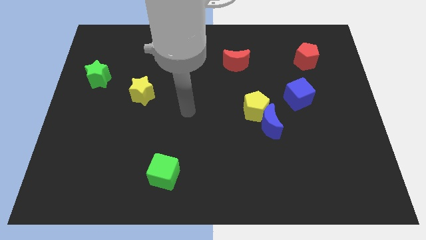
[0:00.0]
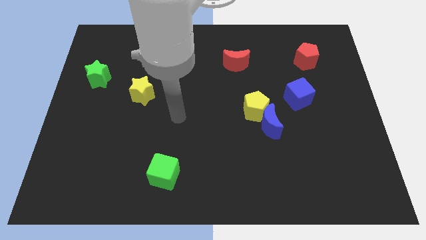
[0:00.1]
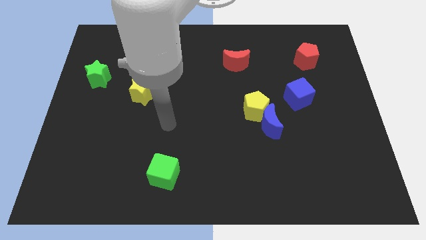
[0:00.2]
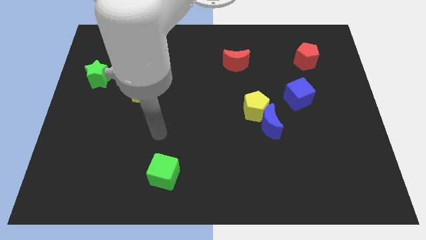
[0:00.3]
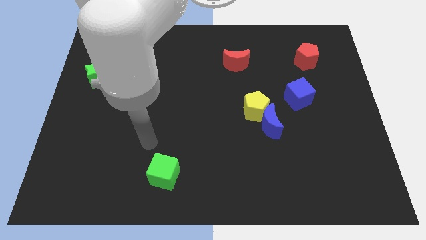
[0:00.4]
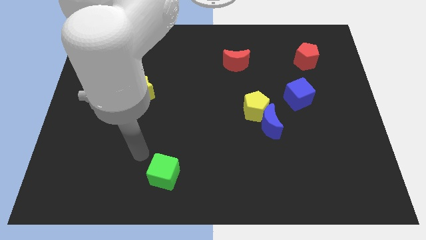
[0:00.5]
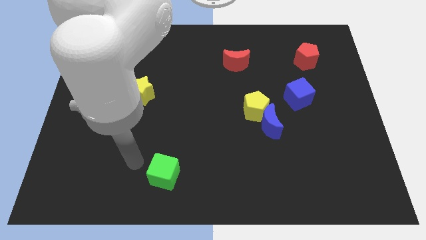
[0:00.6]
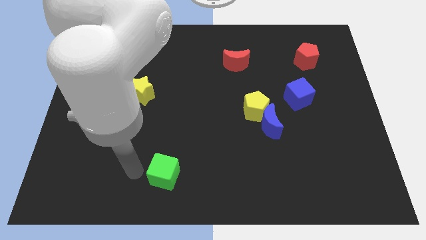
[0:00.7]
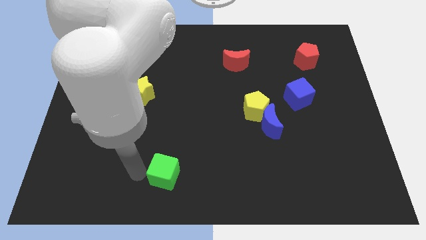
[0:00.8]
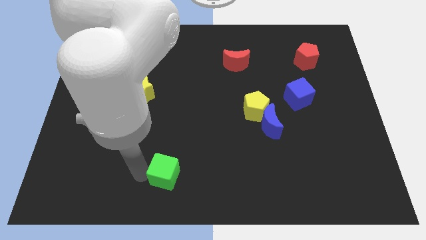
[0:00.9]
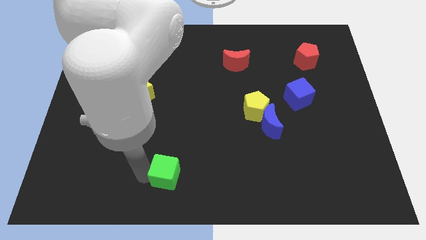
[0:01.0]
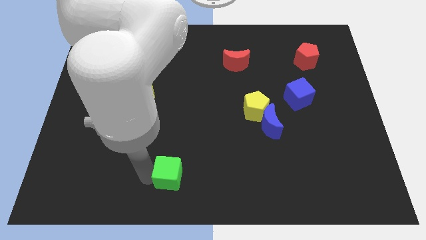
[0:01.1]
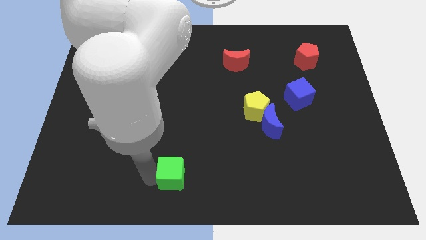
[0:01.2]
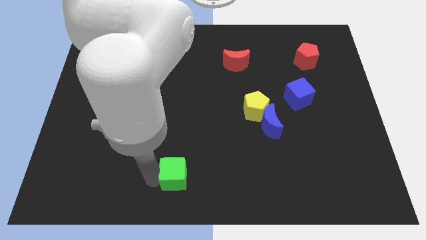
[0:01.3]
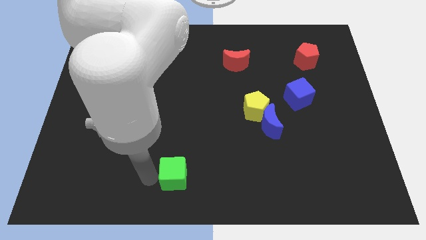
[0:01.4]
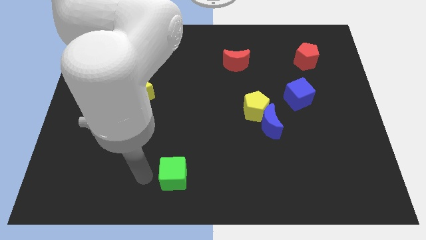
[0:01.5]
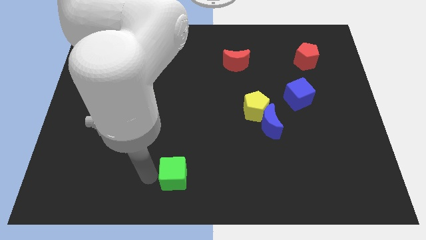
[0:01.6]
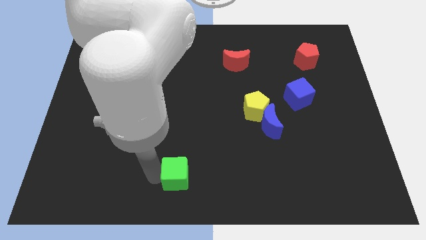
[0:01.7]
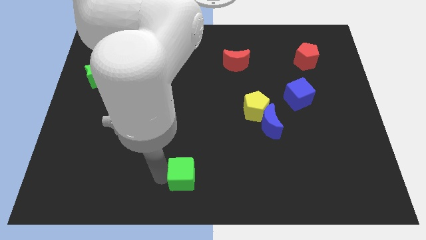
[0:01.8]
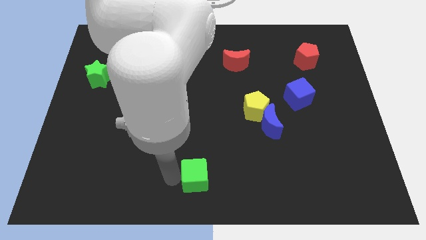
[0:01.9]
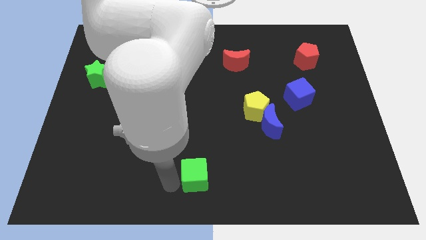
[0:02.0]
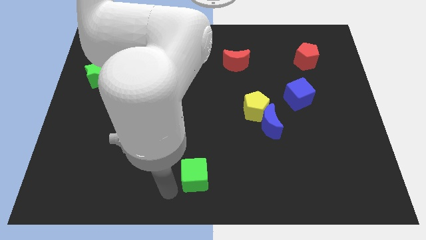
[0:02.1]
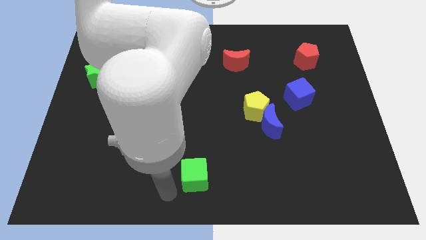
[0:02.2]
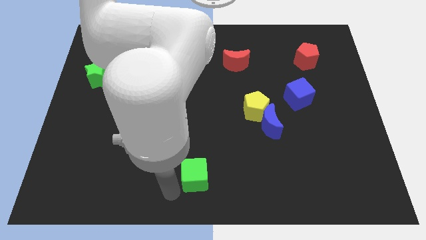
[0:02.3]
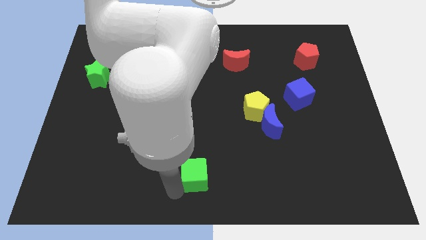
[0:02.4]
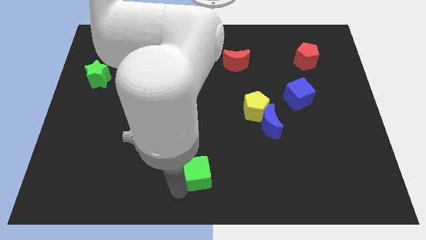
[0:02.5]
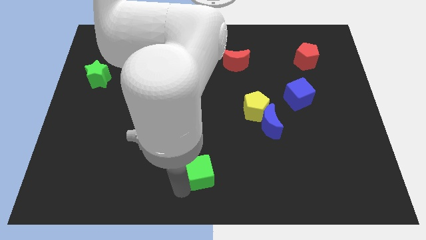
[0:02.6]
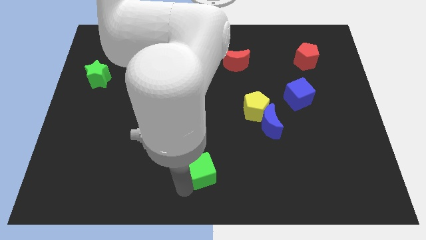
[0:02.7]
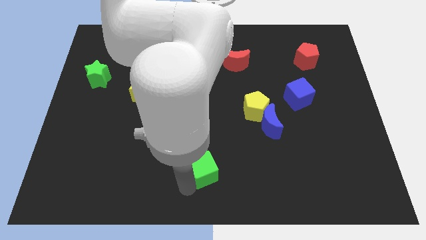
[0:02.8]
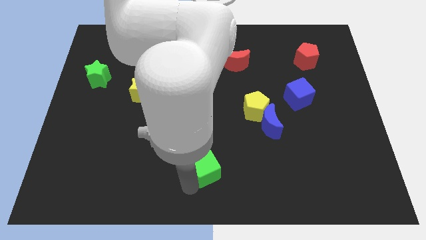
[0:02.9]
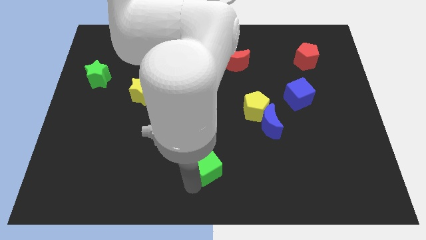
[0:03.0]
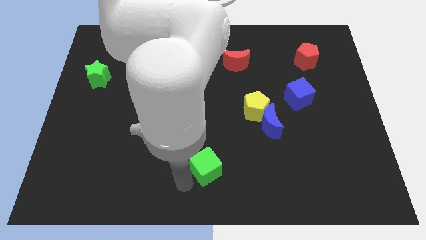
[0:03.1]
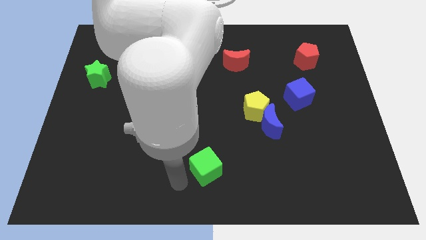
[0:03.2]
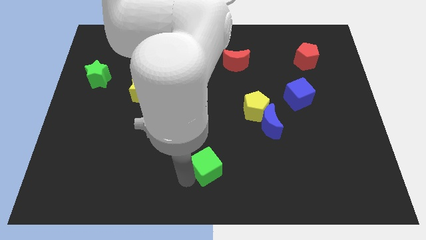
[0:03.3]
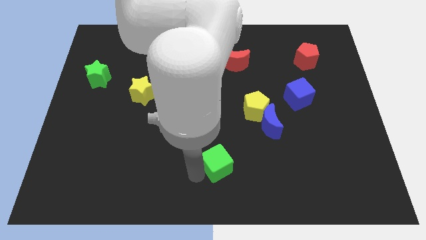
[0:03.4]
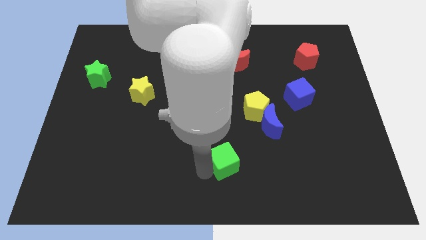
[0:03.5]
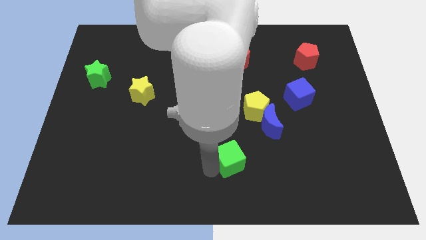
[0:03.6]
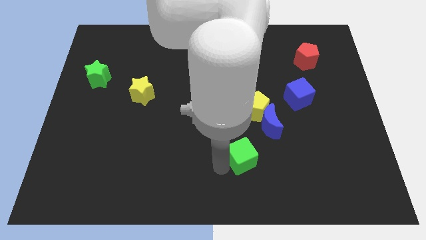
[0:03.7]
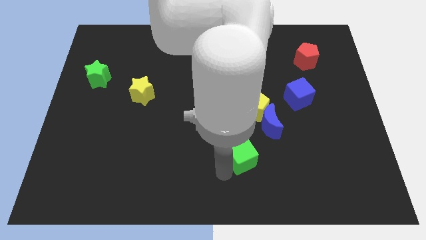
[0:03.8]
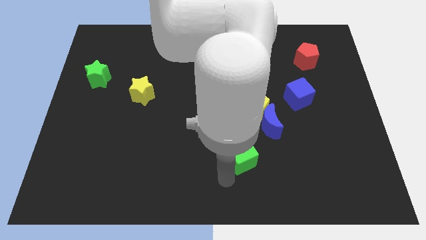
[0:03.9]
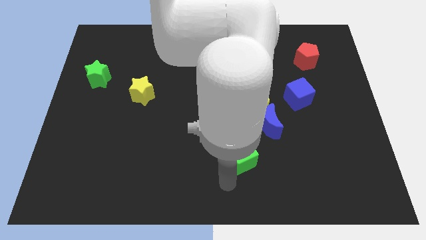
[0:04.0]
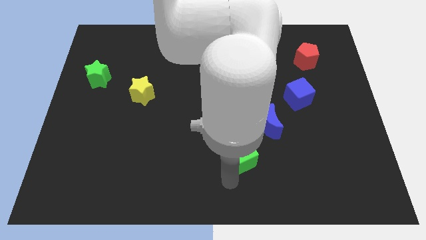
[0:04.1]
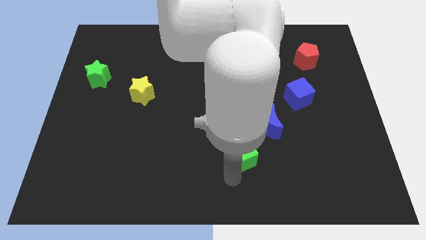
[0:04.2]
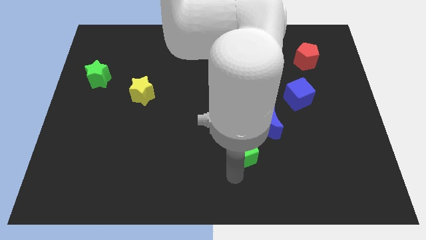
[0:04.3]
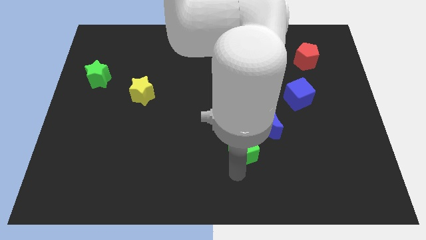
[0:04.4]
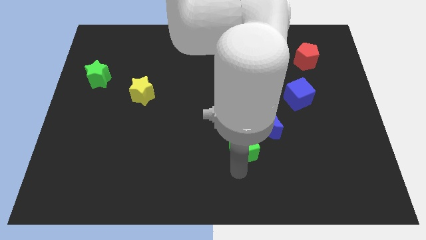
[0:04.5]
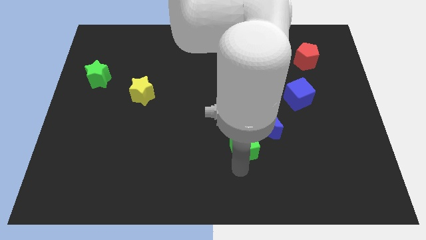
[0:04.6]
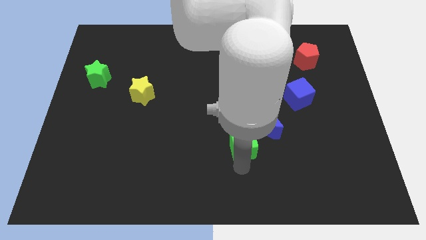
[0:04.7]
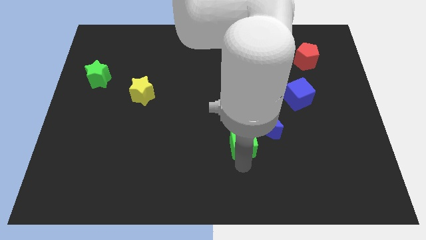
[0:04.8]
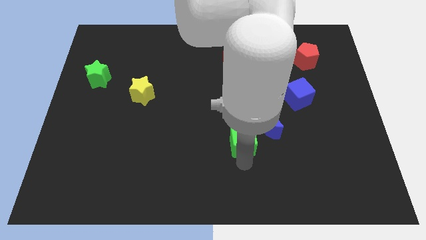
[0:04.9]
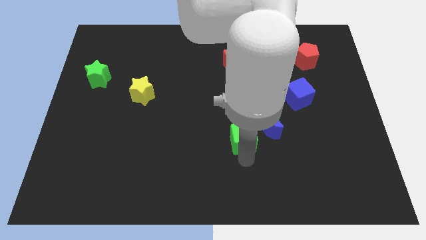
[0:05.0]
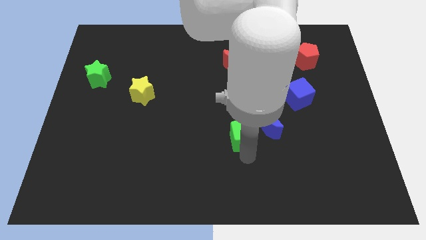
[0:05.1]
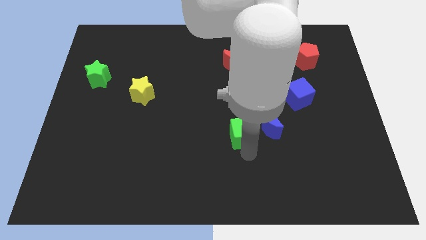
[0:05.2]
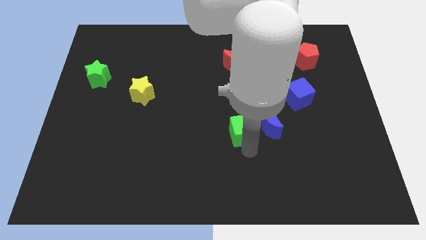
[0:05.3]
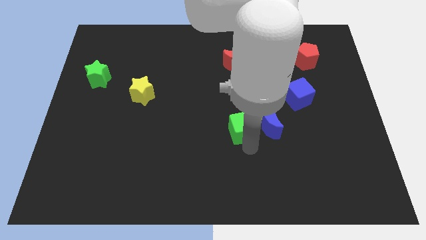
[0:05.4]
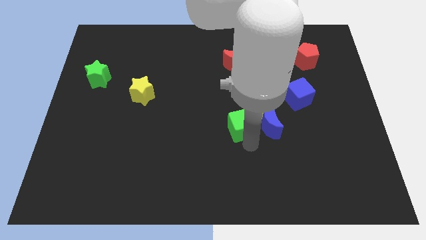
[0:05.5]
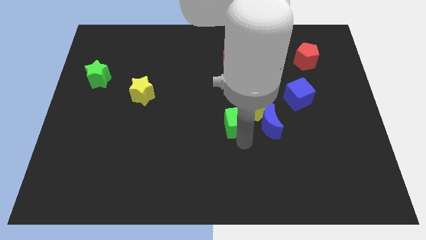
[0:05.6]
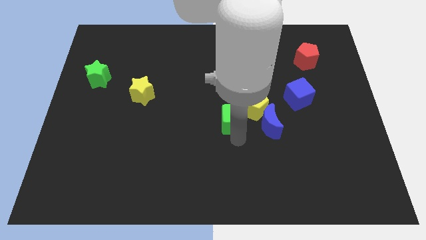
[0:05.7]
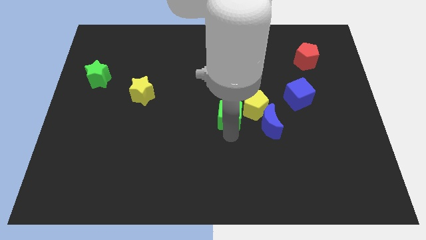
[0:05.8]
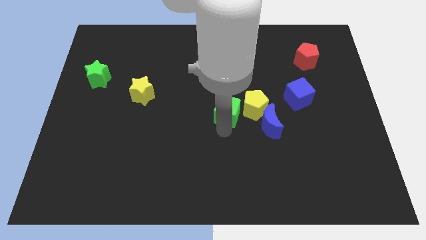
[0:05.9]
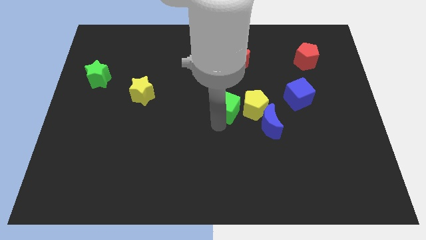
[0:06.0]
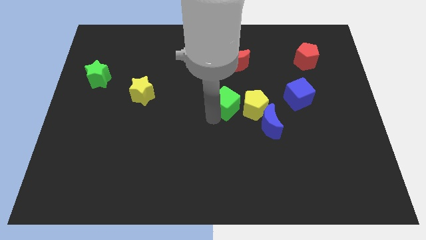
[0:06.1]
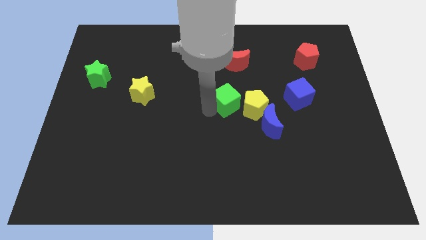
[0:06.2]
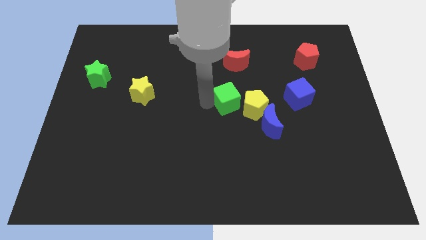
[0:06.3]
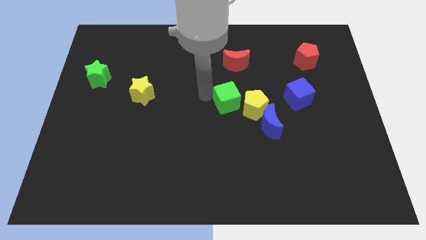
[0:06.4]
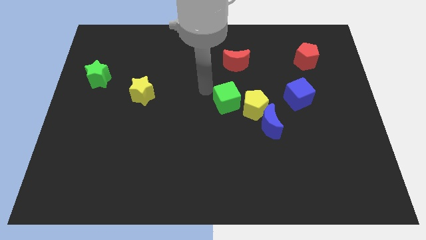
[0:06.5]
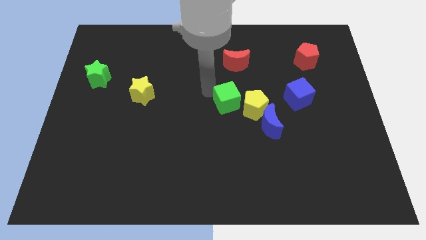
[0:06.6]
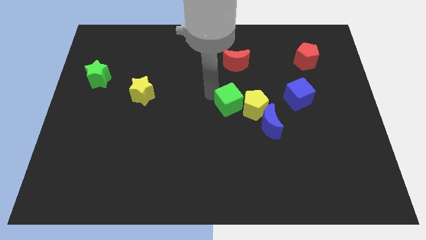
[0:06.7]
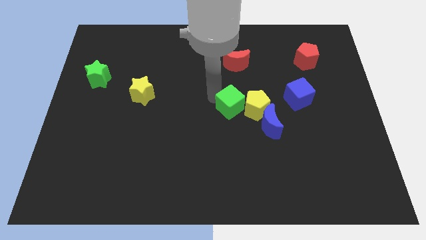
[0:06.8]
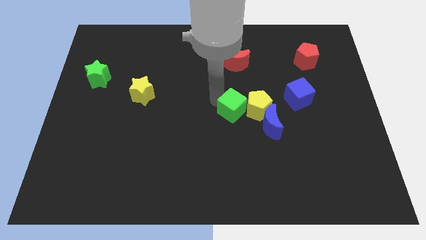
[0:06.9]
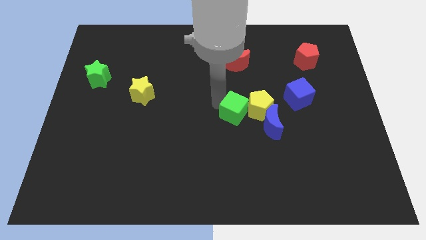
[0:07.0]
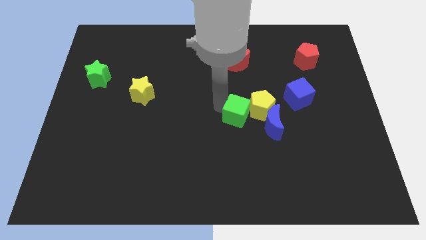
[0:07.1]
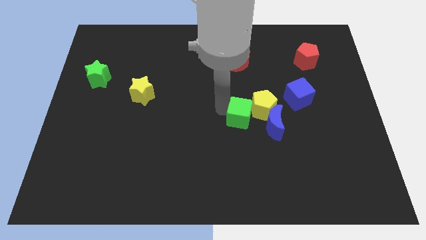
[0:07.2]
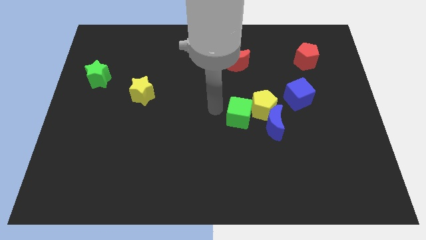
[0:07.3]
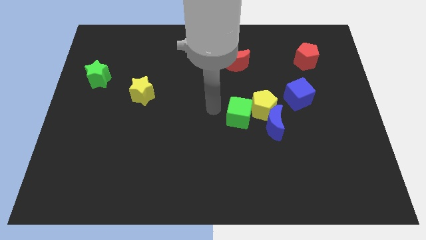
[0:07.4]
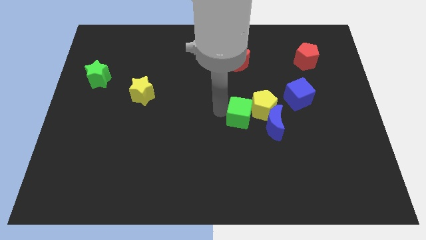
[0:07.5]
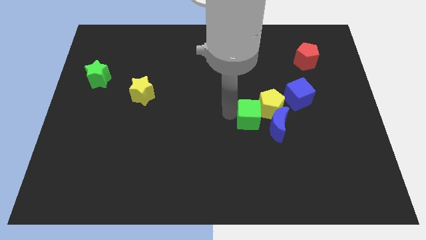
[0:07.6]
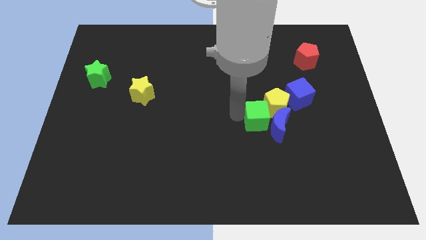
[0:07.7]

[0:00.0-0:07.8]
push the green cube towards the blue moon
